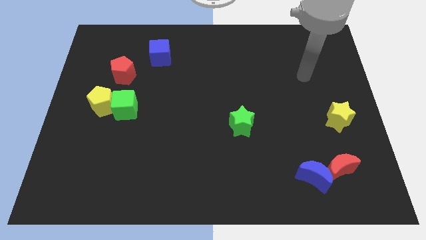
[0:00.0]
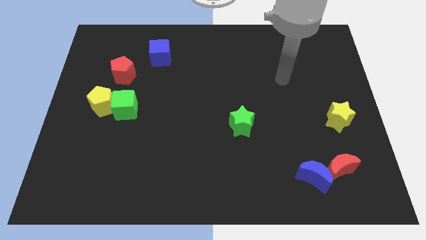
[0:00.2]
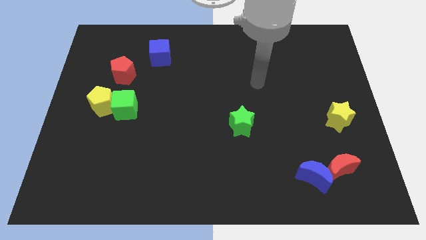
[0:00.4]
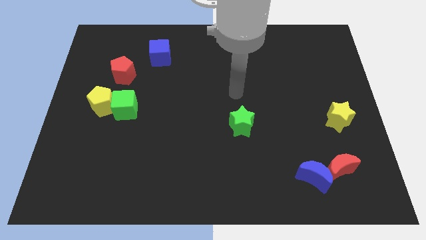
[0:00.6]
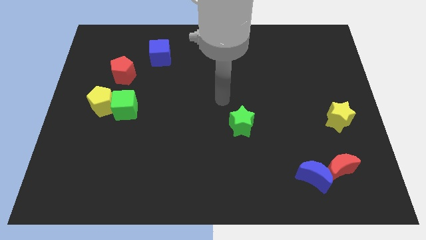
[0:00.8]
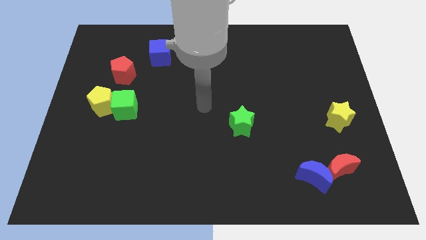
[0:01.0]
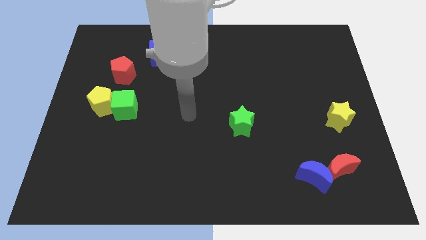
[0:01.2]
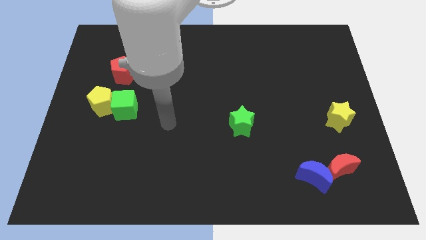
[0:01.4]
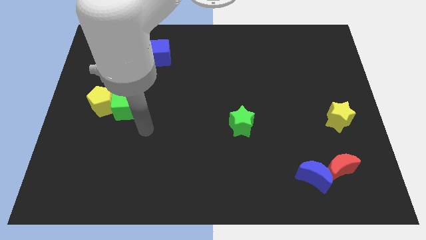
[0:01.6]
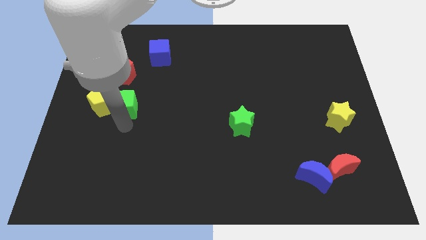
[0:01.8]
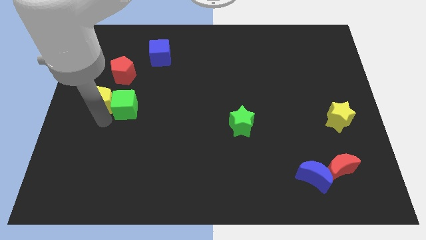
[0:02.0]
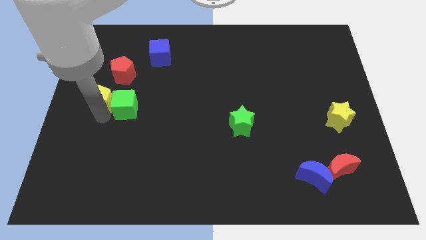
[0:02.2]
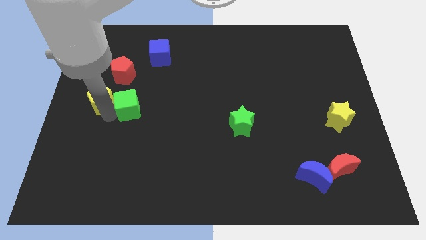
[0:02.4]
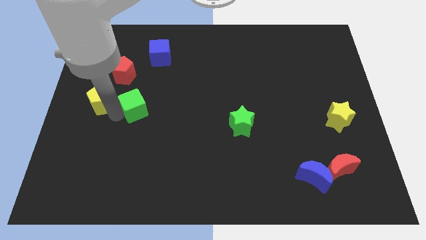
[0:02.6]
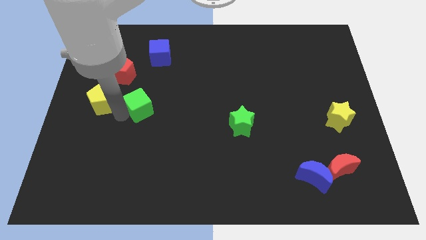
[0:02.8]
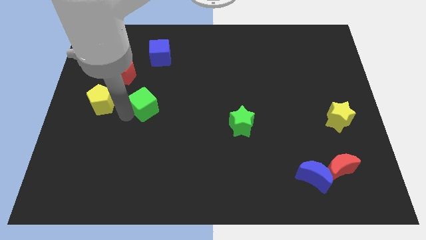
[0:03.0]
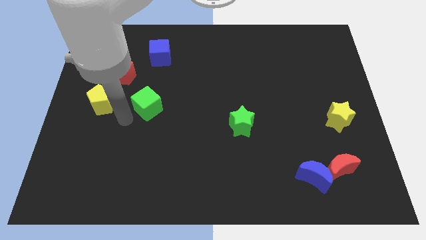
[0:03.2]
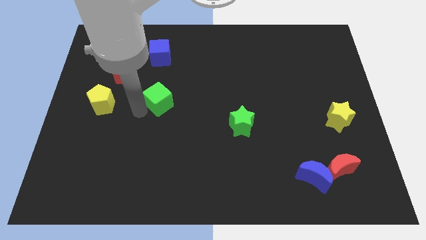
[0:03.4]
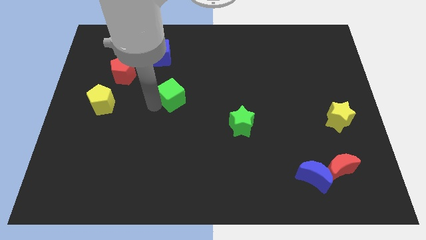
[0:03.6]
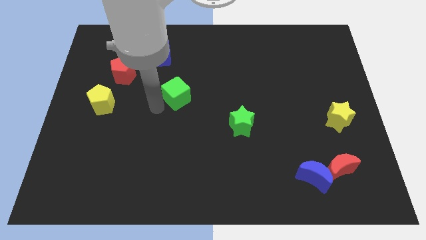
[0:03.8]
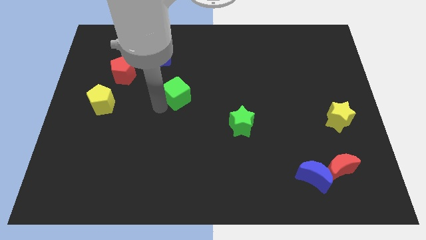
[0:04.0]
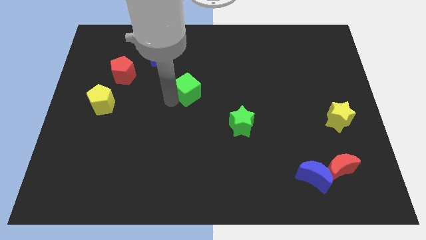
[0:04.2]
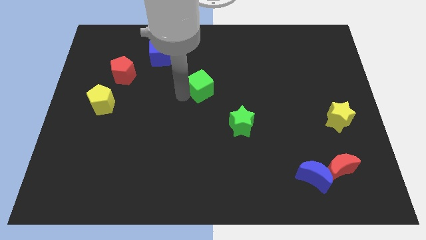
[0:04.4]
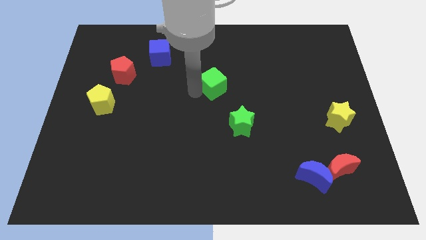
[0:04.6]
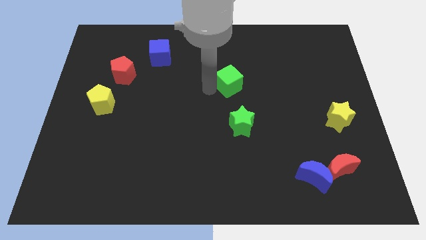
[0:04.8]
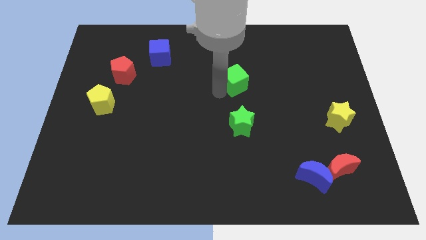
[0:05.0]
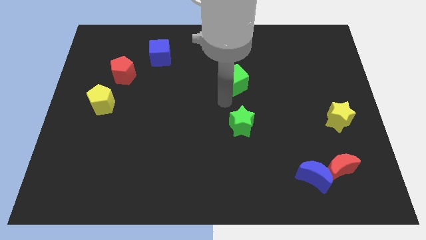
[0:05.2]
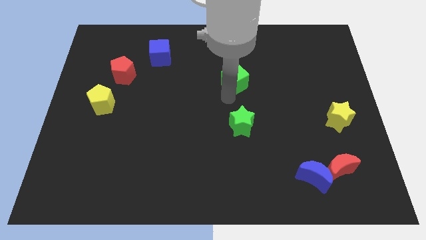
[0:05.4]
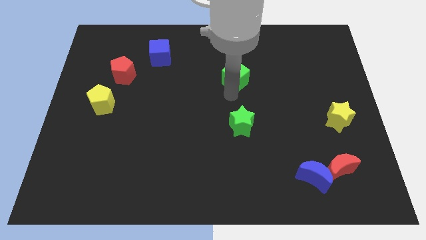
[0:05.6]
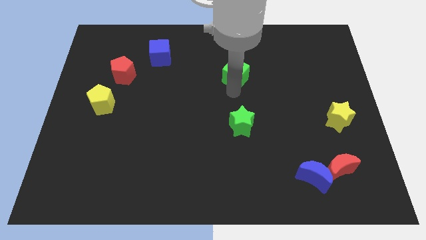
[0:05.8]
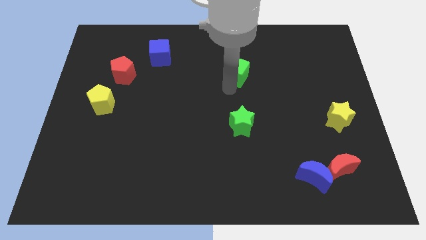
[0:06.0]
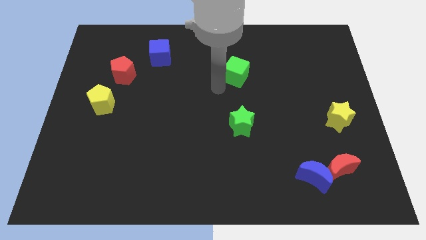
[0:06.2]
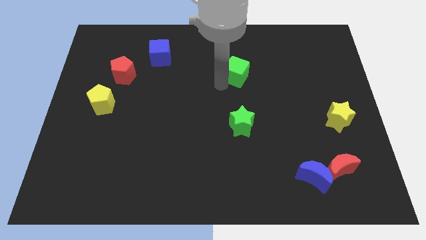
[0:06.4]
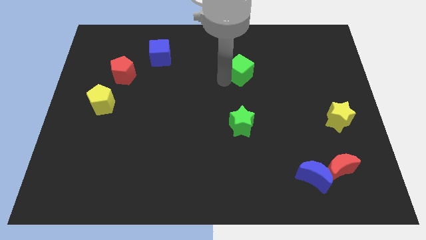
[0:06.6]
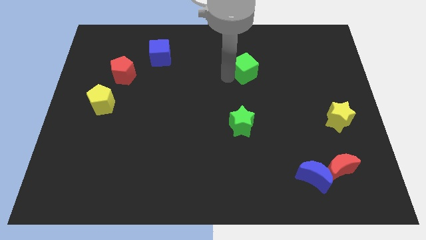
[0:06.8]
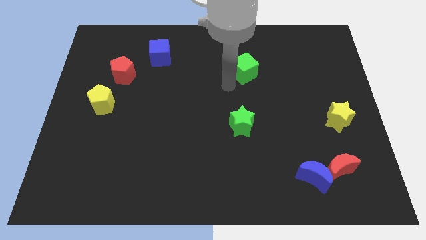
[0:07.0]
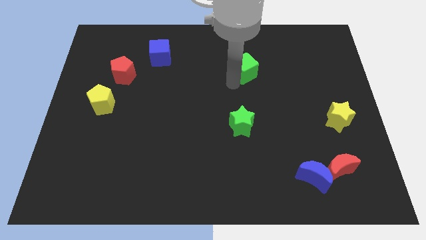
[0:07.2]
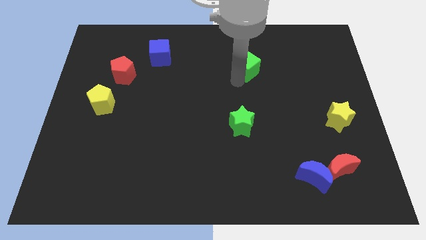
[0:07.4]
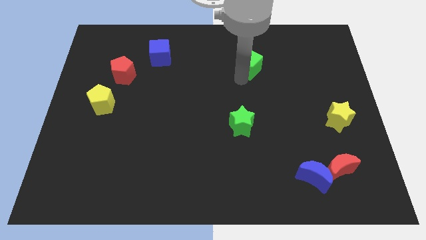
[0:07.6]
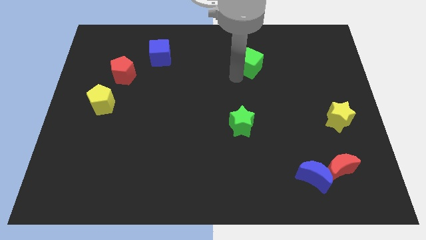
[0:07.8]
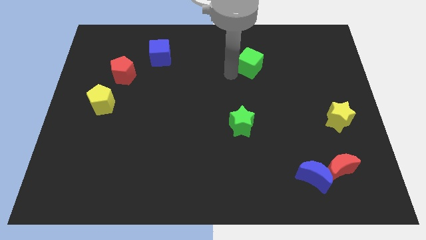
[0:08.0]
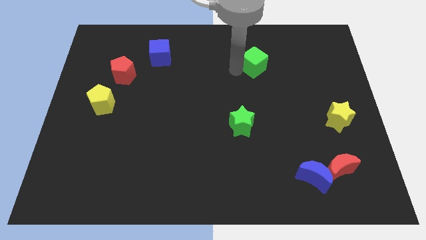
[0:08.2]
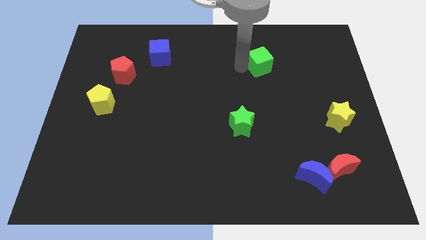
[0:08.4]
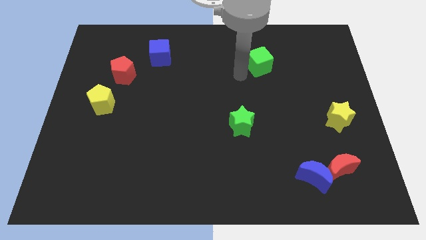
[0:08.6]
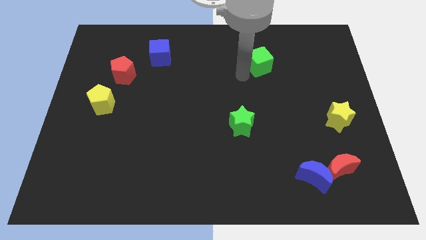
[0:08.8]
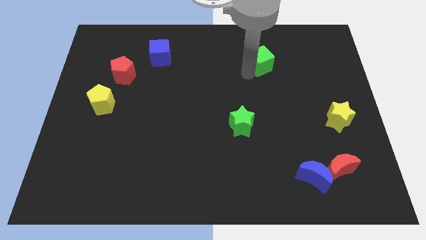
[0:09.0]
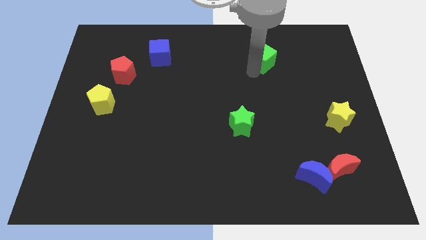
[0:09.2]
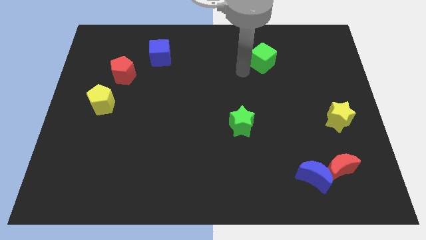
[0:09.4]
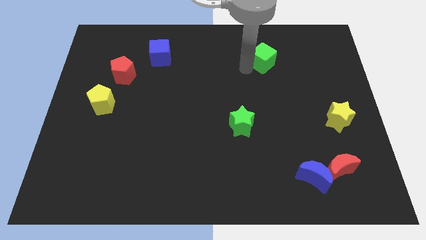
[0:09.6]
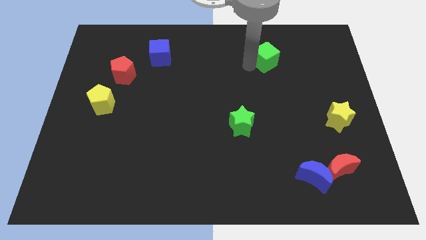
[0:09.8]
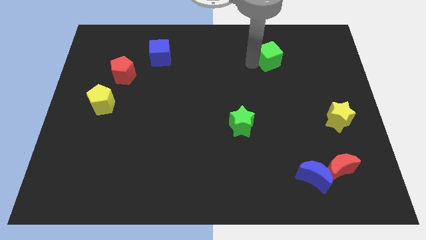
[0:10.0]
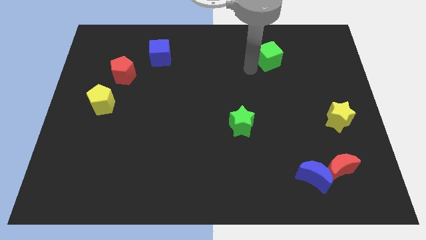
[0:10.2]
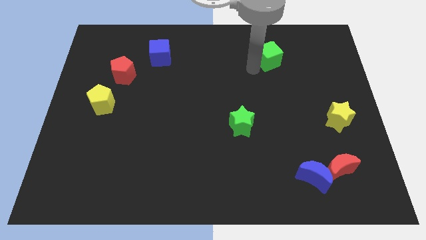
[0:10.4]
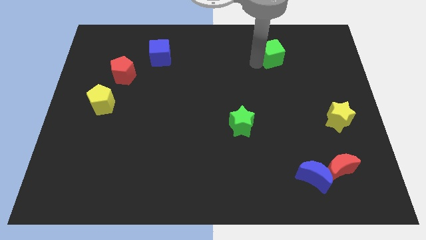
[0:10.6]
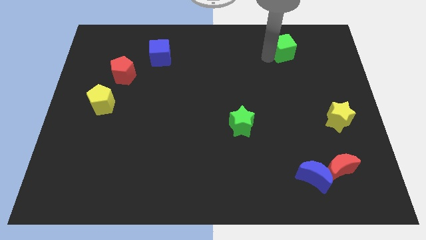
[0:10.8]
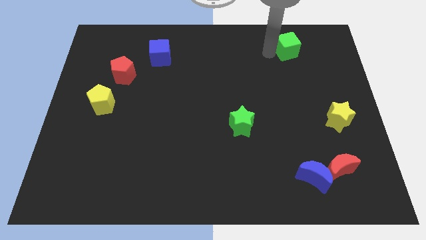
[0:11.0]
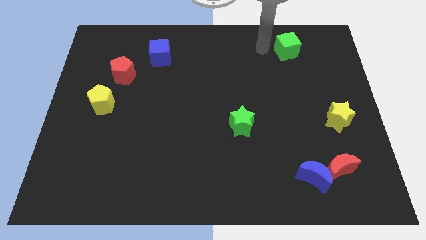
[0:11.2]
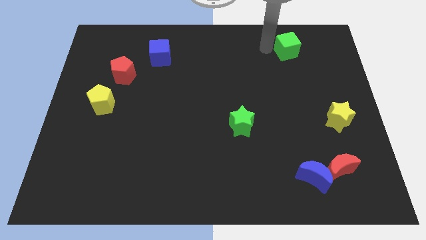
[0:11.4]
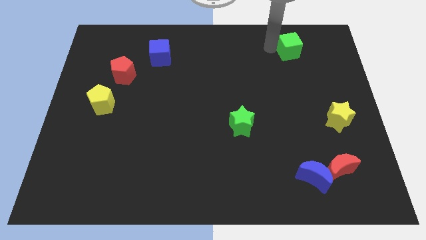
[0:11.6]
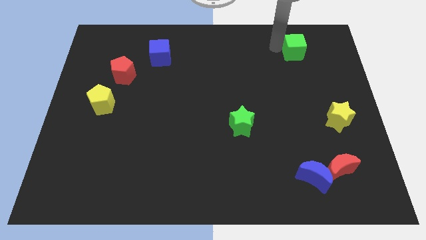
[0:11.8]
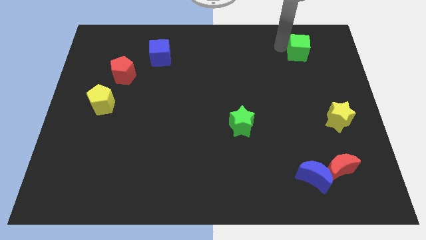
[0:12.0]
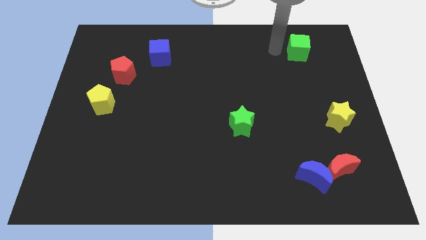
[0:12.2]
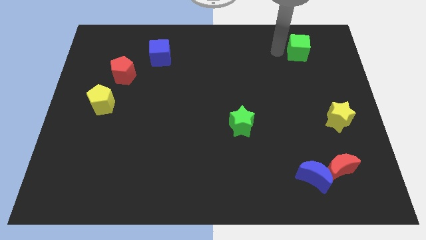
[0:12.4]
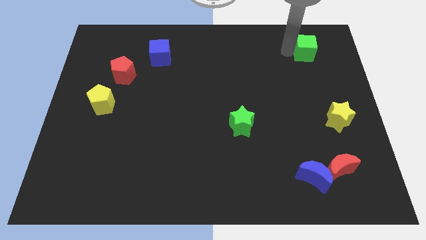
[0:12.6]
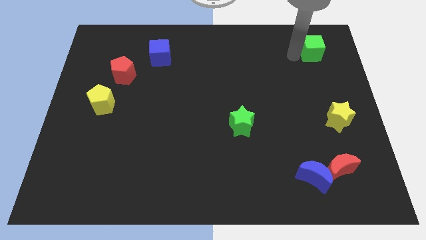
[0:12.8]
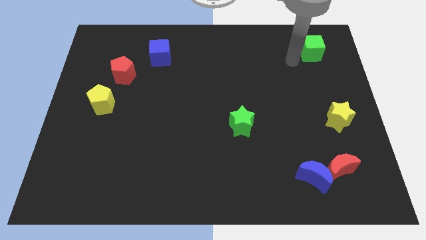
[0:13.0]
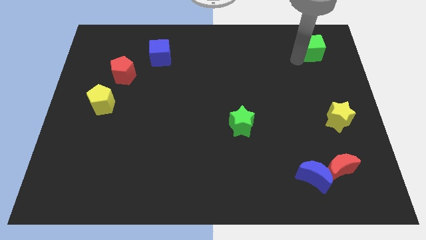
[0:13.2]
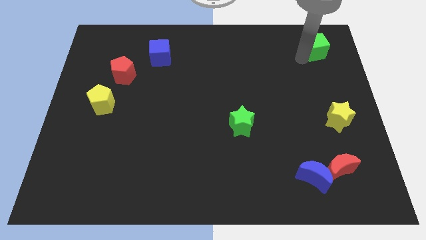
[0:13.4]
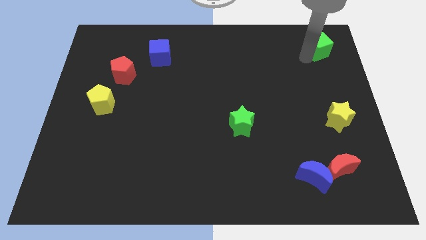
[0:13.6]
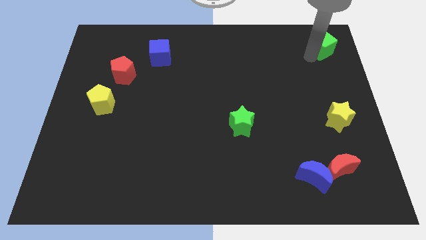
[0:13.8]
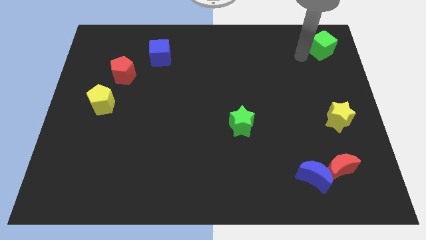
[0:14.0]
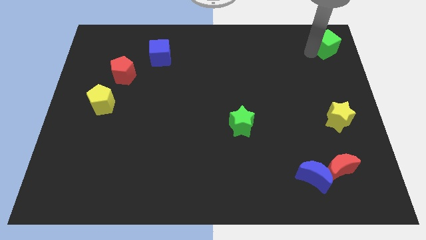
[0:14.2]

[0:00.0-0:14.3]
move the green cube to the top right of the board
